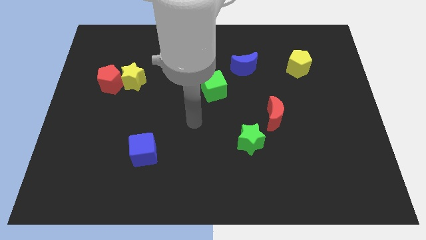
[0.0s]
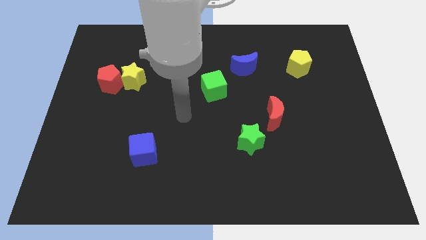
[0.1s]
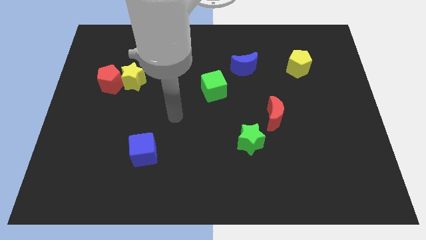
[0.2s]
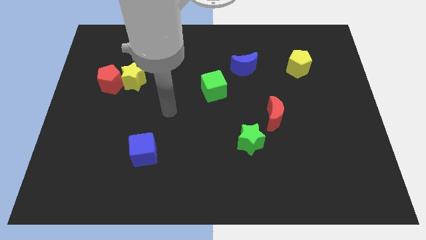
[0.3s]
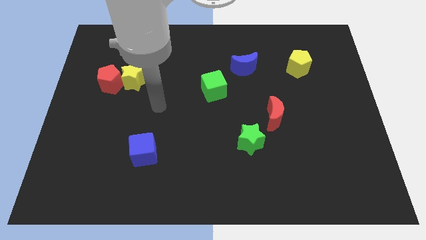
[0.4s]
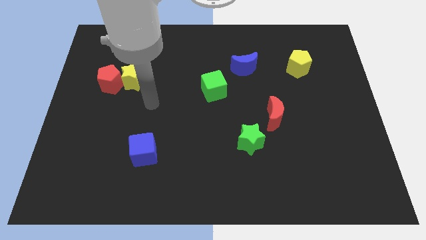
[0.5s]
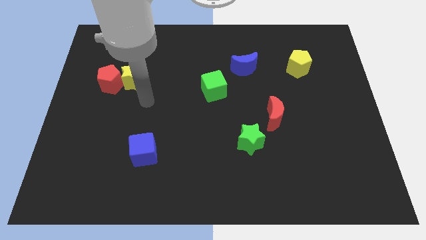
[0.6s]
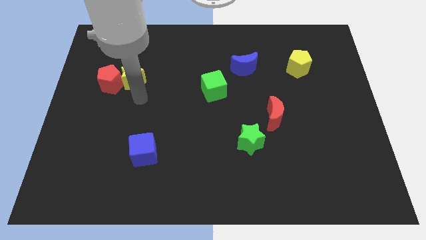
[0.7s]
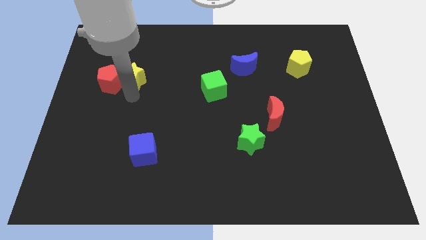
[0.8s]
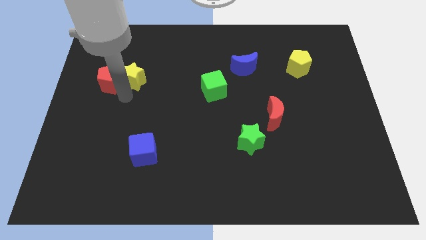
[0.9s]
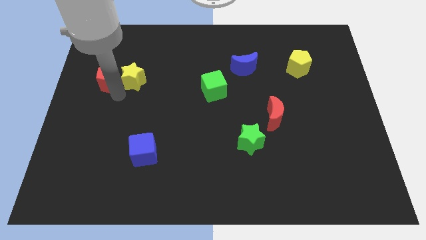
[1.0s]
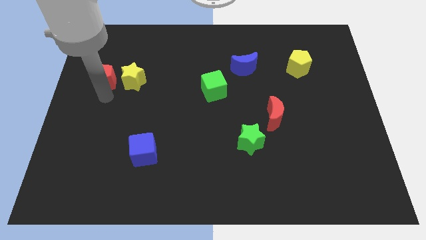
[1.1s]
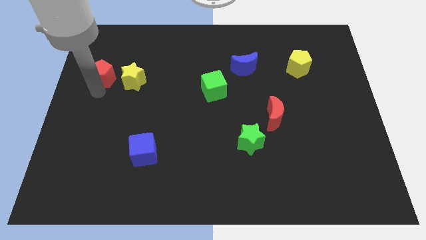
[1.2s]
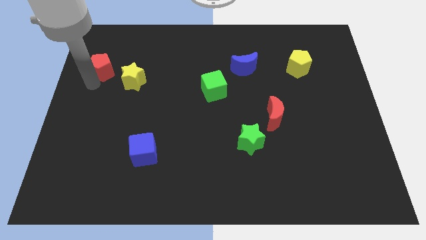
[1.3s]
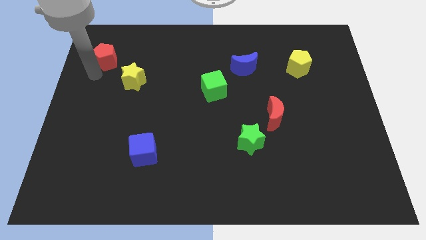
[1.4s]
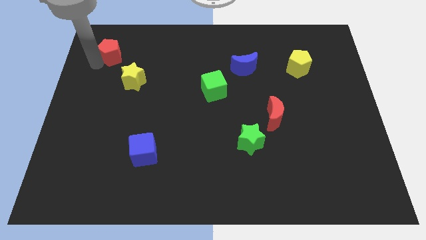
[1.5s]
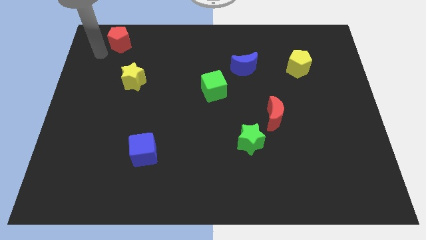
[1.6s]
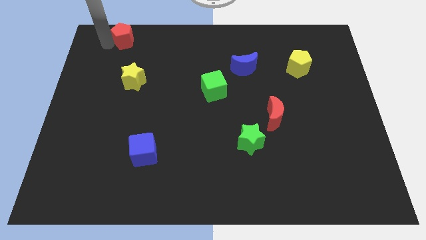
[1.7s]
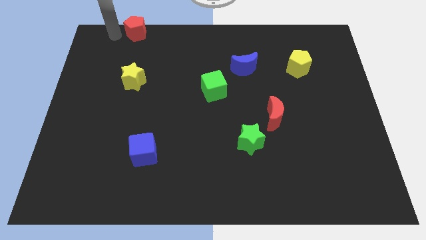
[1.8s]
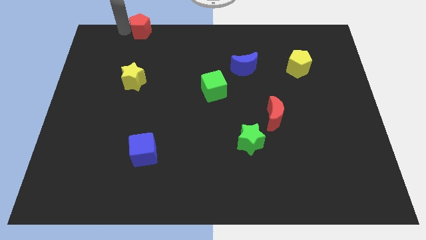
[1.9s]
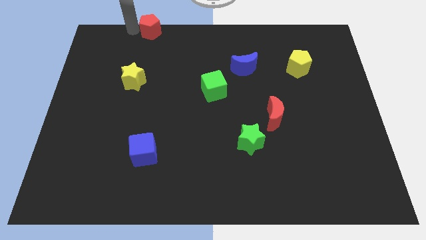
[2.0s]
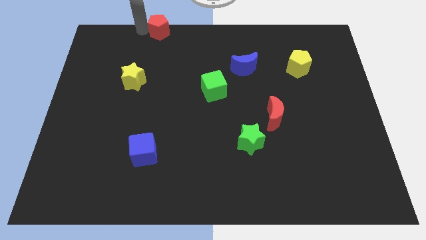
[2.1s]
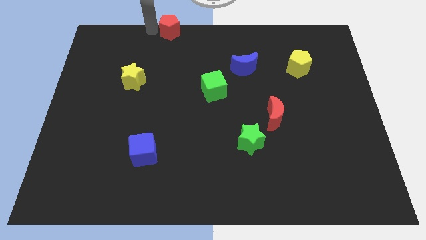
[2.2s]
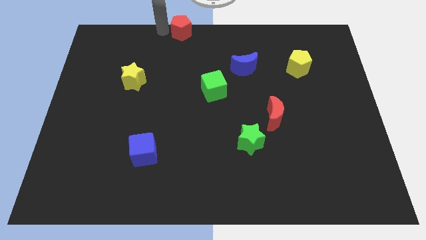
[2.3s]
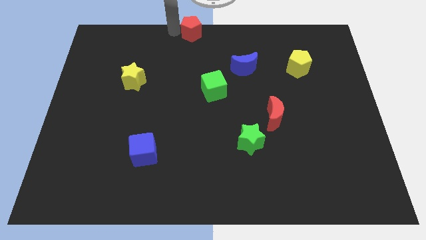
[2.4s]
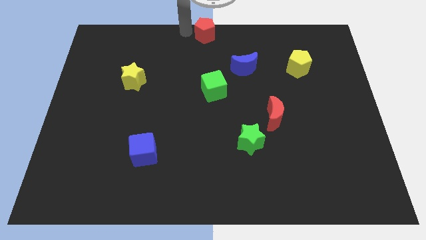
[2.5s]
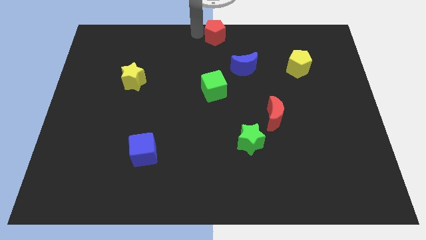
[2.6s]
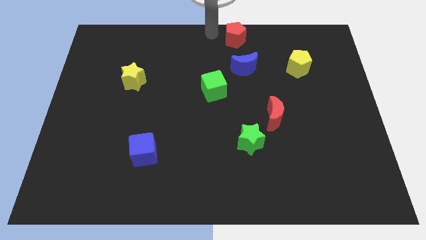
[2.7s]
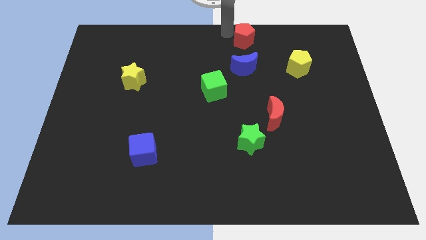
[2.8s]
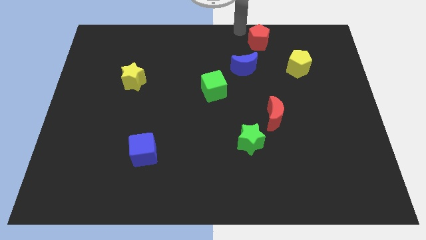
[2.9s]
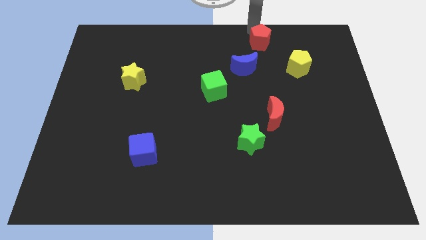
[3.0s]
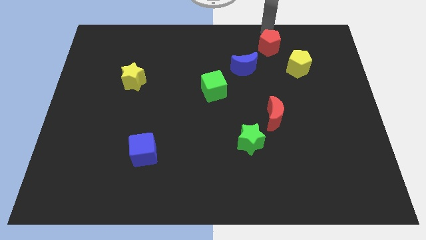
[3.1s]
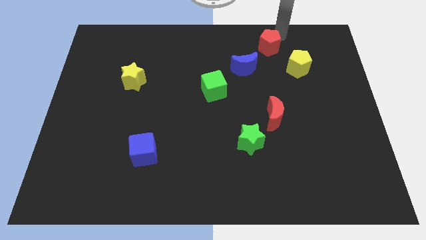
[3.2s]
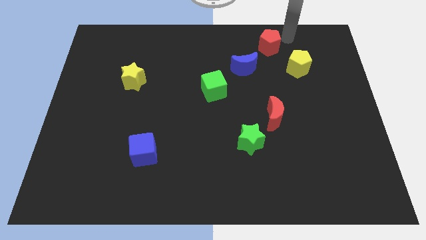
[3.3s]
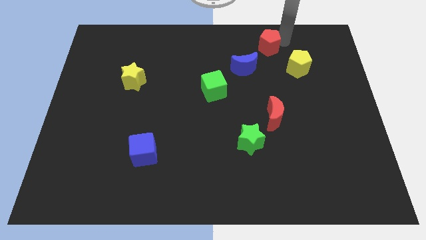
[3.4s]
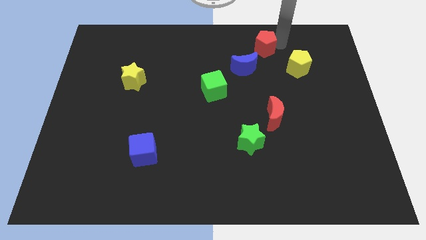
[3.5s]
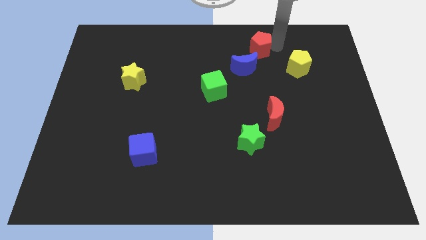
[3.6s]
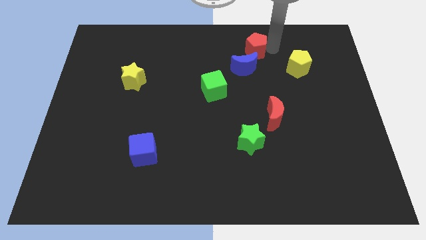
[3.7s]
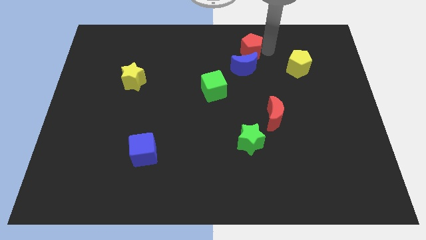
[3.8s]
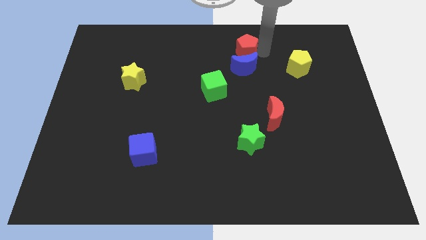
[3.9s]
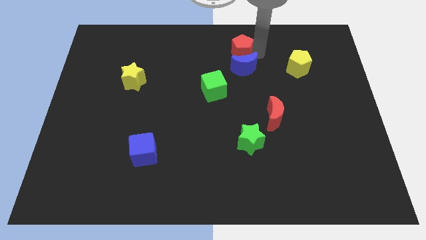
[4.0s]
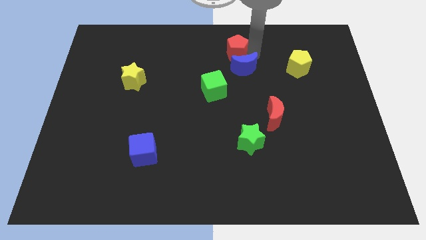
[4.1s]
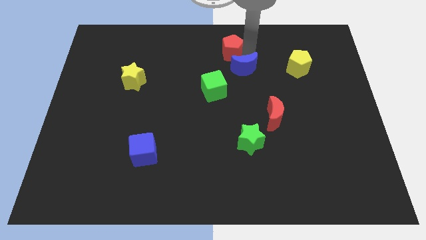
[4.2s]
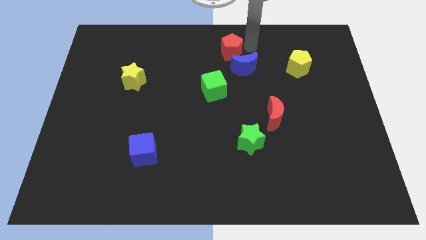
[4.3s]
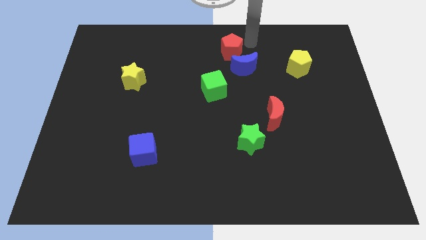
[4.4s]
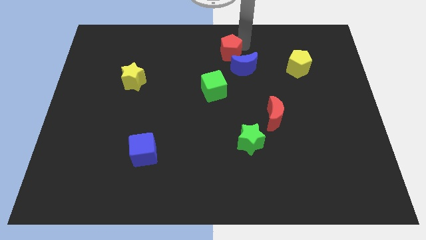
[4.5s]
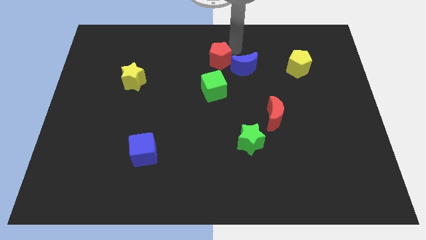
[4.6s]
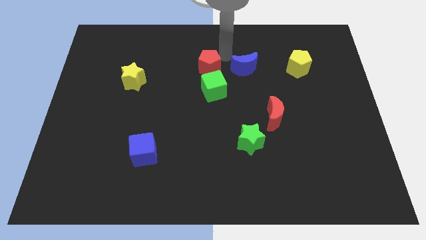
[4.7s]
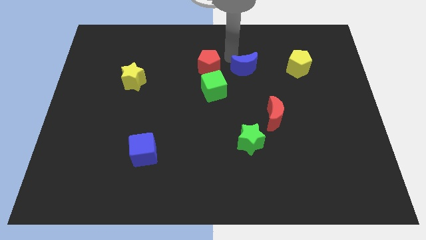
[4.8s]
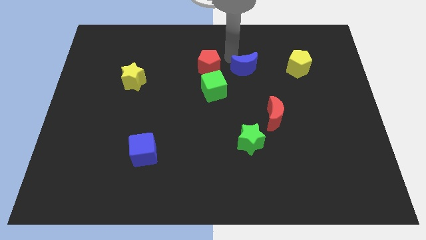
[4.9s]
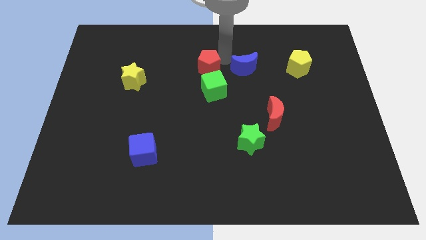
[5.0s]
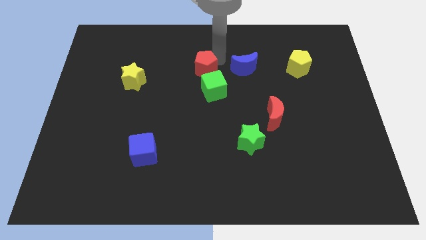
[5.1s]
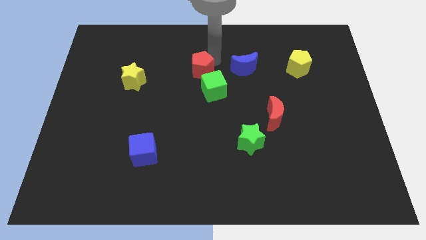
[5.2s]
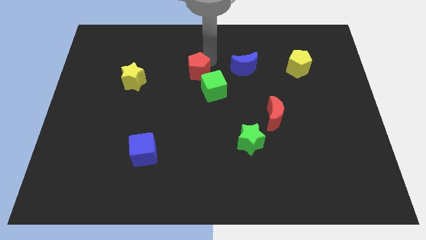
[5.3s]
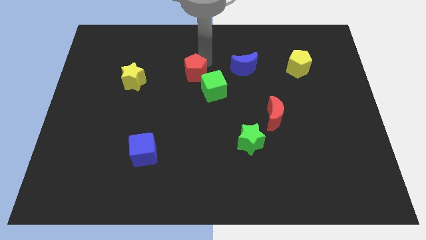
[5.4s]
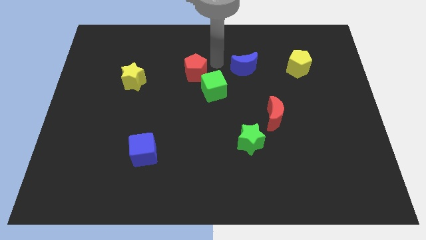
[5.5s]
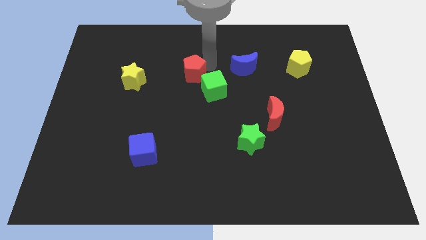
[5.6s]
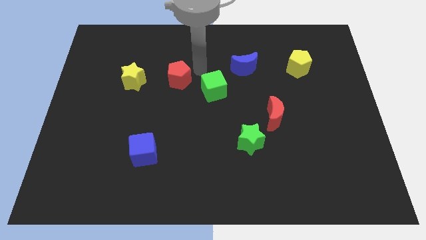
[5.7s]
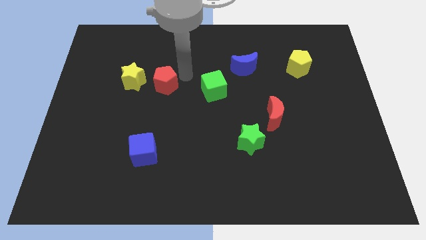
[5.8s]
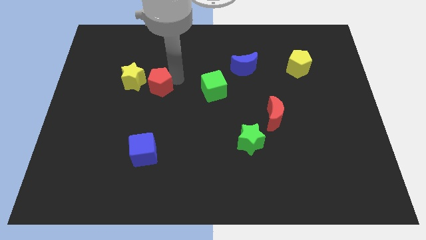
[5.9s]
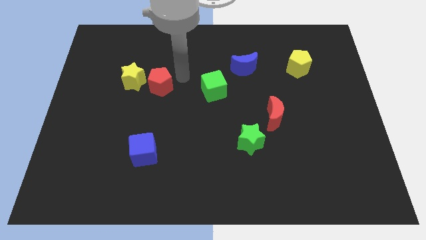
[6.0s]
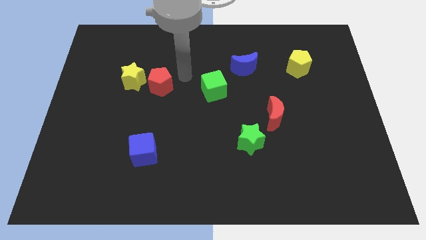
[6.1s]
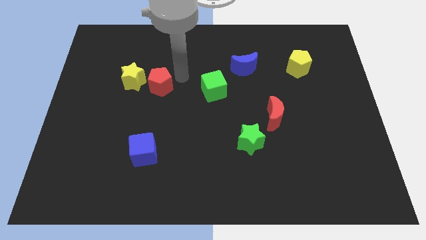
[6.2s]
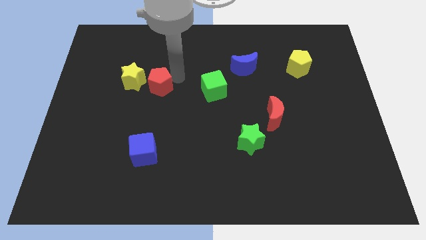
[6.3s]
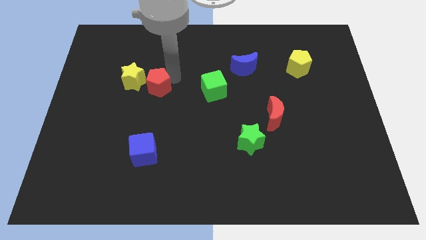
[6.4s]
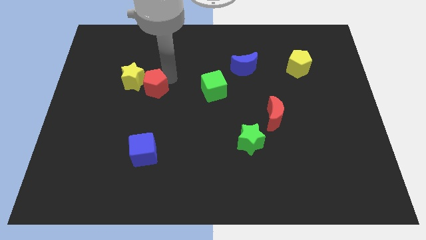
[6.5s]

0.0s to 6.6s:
push the red pentagon downwards and then right a little bit

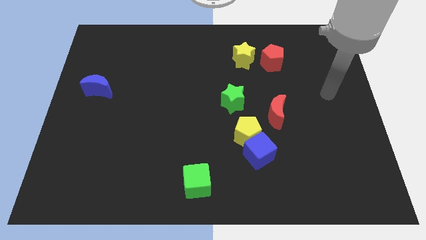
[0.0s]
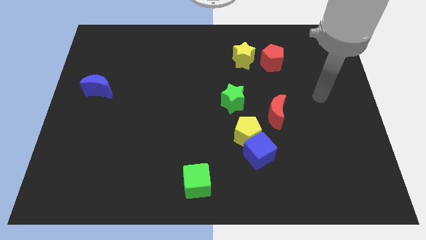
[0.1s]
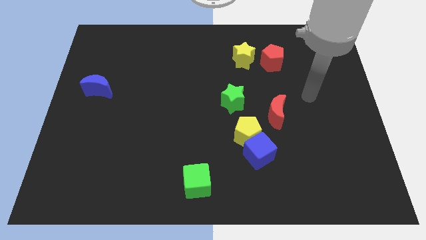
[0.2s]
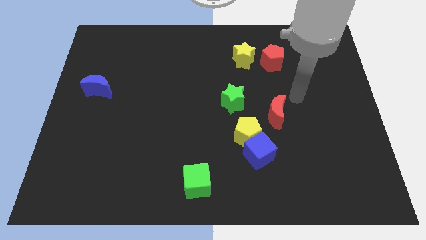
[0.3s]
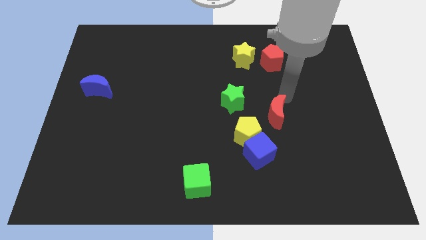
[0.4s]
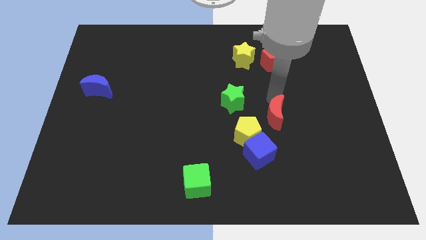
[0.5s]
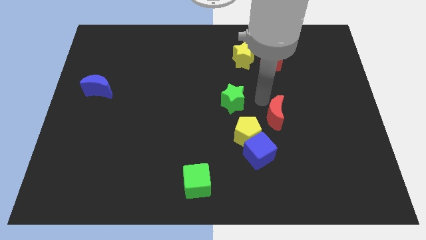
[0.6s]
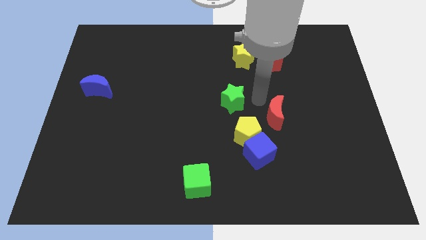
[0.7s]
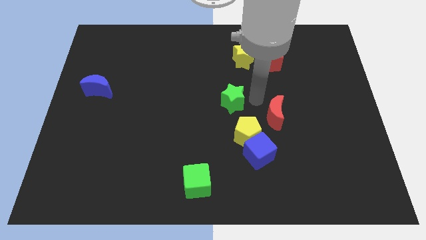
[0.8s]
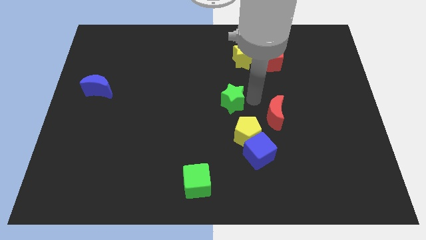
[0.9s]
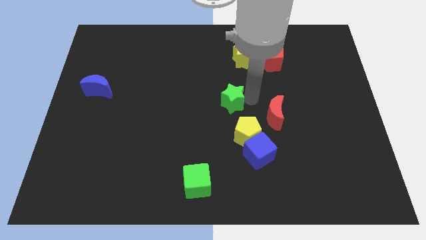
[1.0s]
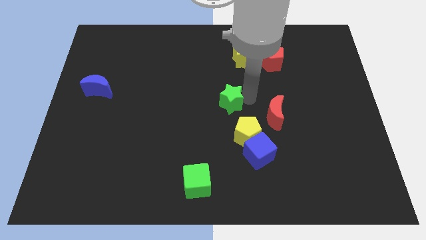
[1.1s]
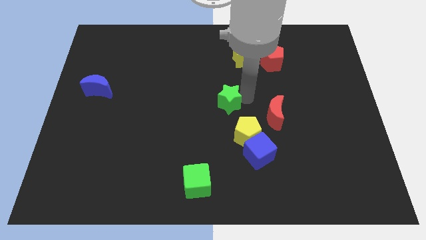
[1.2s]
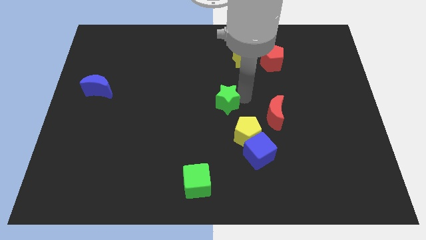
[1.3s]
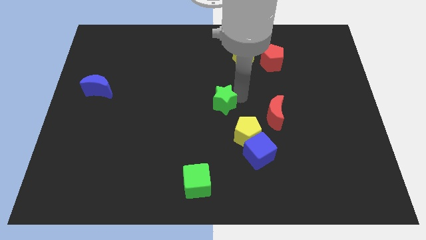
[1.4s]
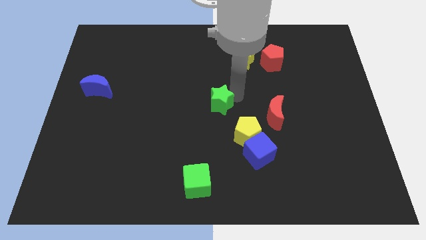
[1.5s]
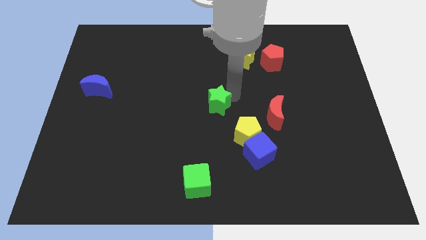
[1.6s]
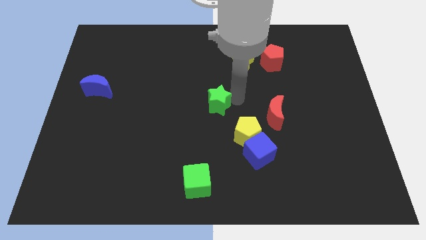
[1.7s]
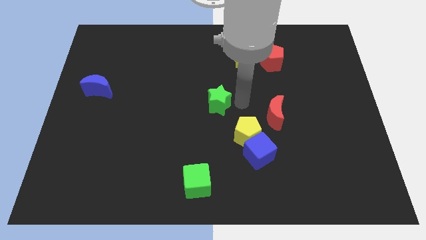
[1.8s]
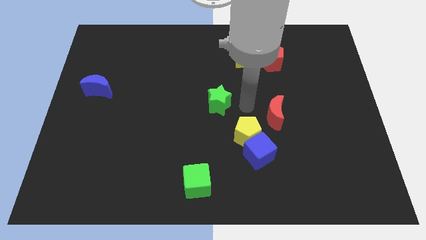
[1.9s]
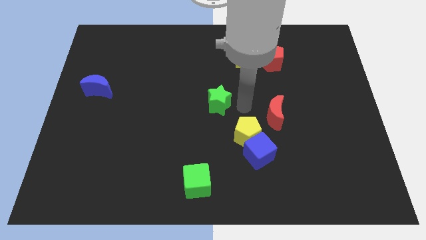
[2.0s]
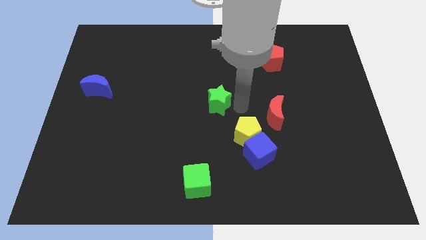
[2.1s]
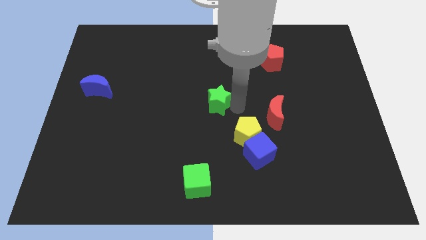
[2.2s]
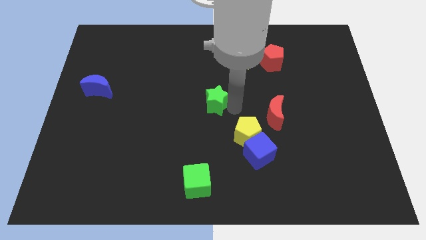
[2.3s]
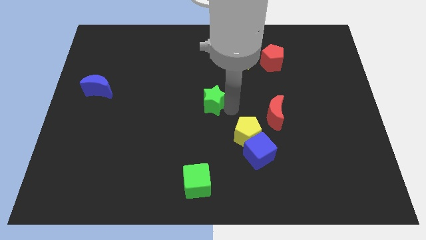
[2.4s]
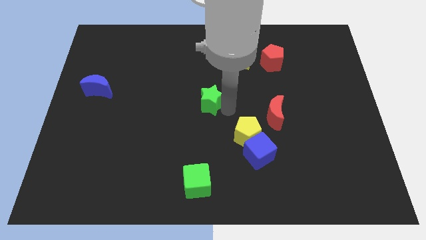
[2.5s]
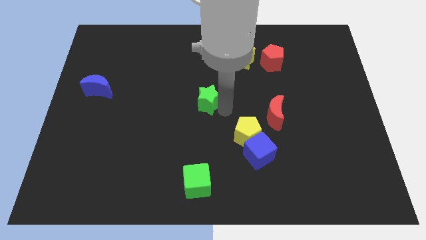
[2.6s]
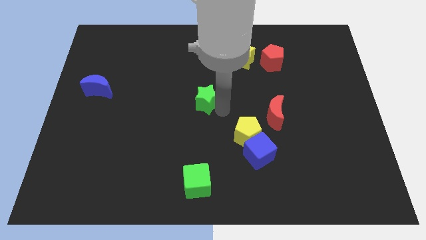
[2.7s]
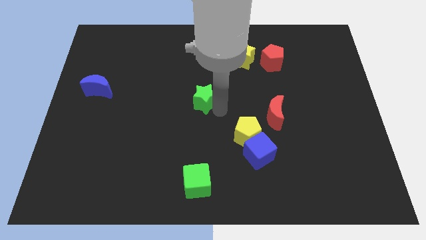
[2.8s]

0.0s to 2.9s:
move the green star to the left slightly
